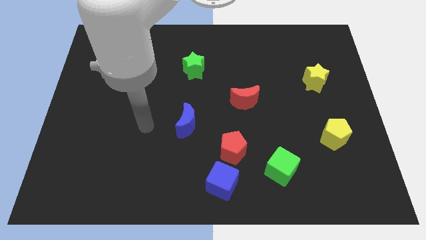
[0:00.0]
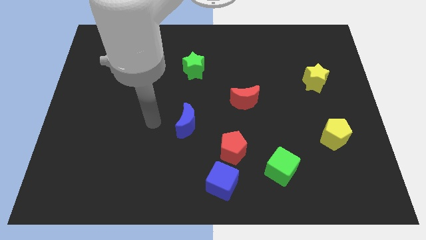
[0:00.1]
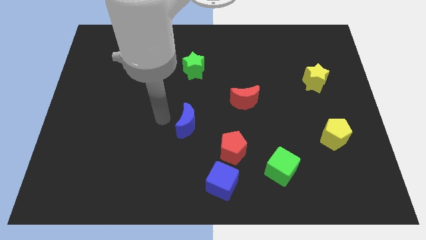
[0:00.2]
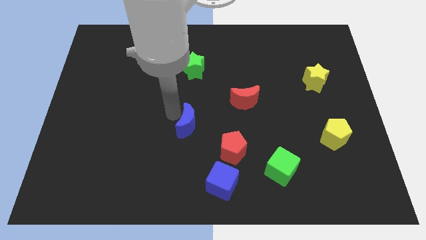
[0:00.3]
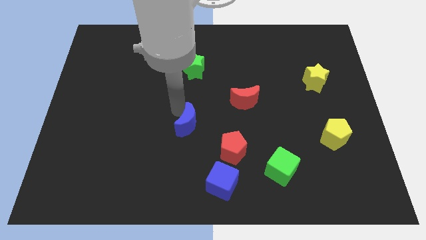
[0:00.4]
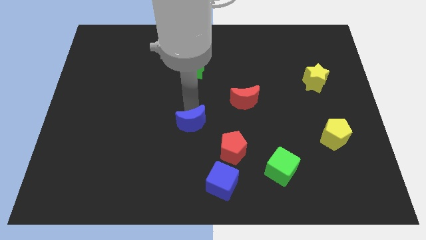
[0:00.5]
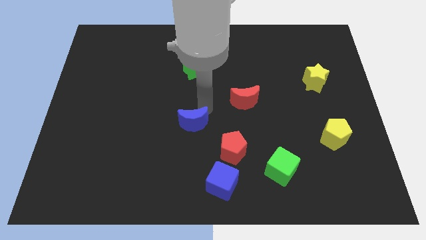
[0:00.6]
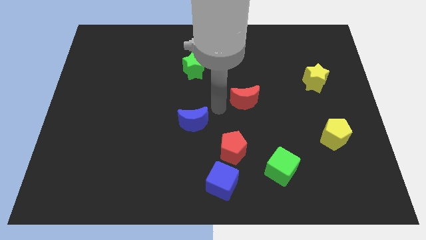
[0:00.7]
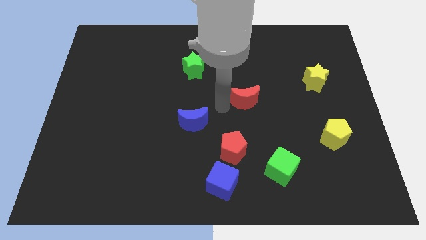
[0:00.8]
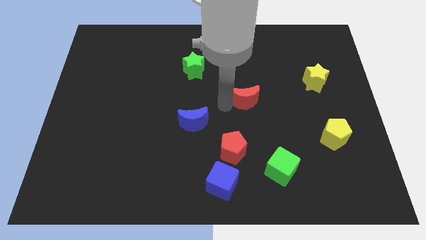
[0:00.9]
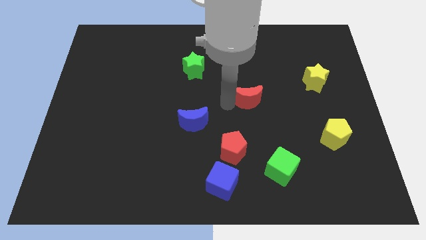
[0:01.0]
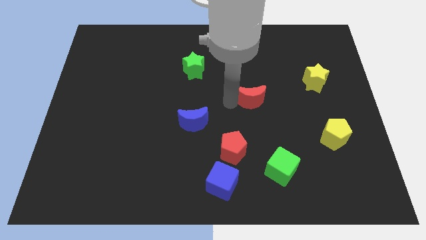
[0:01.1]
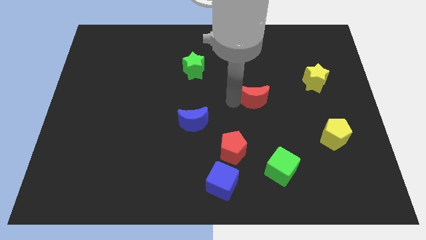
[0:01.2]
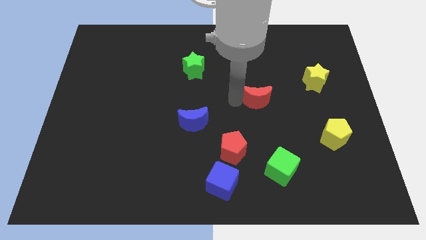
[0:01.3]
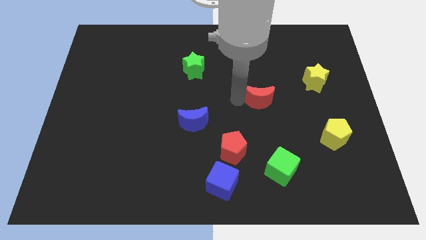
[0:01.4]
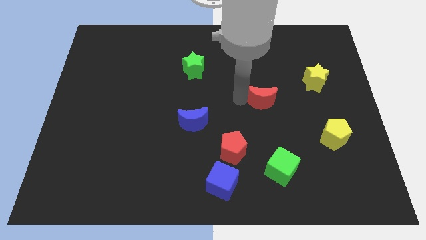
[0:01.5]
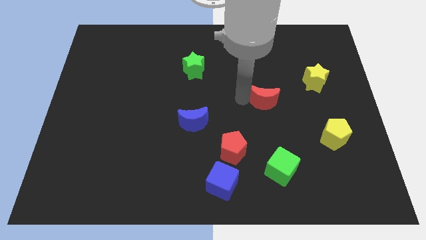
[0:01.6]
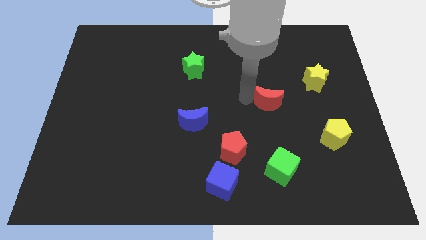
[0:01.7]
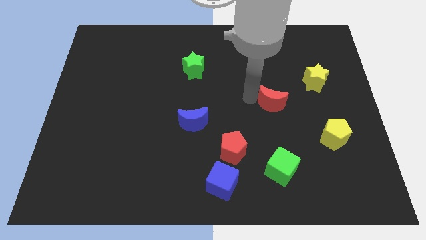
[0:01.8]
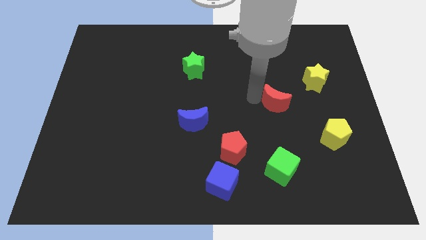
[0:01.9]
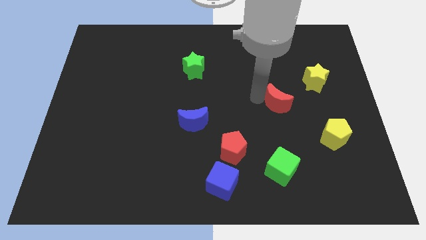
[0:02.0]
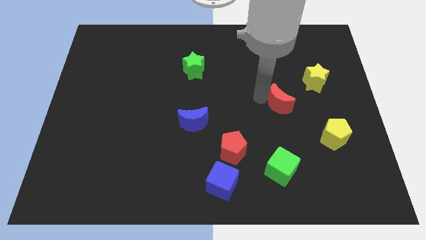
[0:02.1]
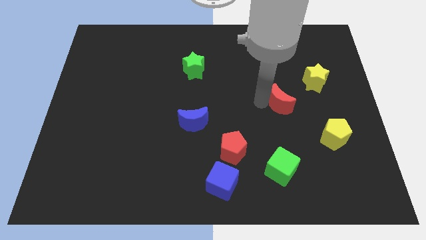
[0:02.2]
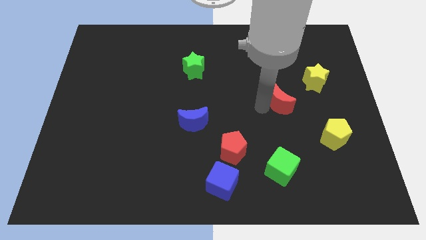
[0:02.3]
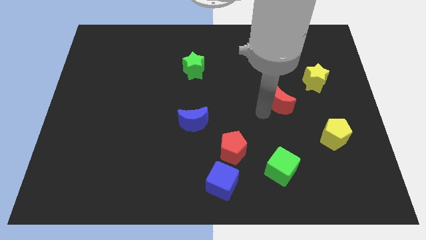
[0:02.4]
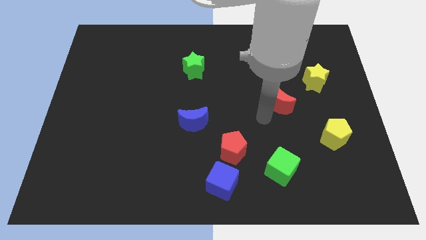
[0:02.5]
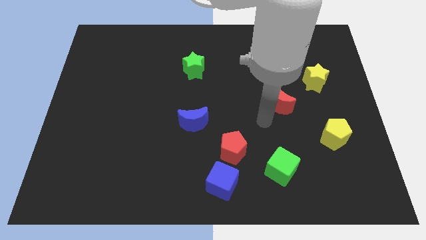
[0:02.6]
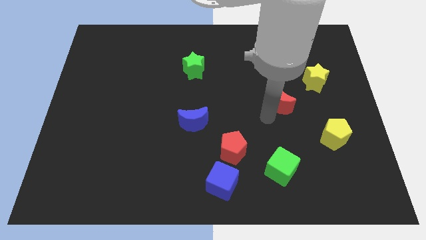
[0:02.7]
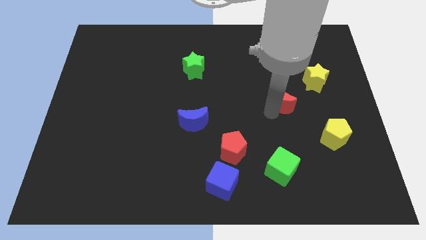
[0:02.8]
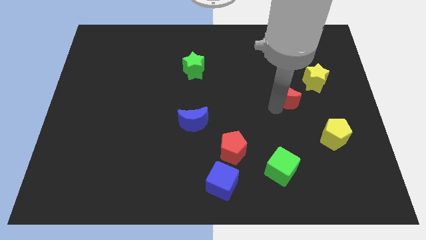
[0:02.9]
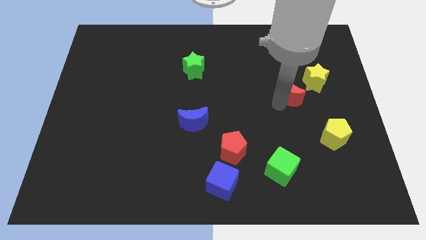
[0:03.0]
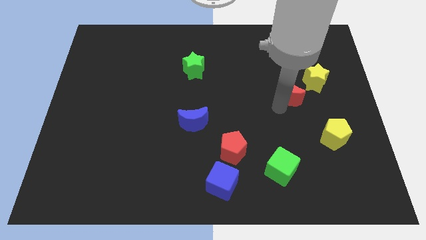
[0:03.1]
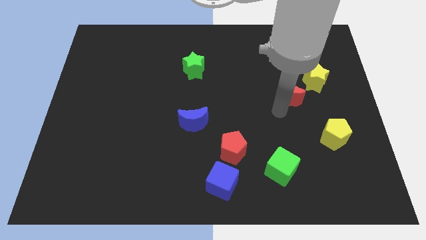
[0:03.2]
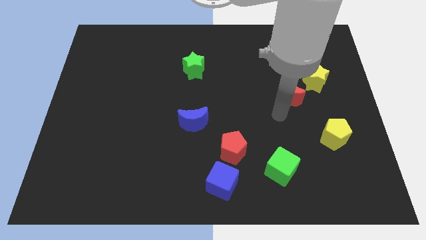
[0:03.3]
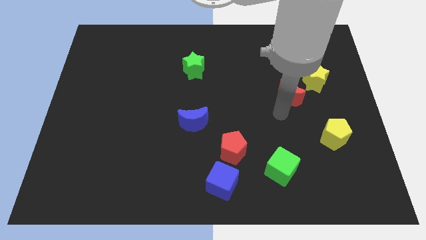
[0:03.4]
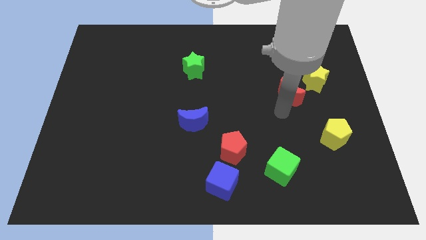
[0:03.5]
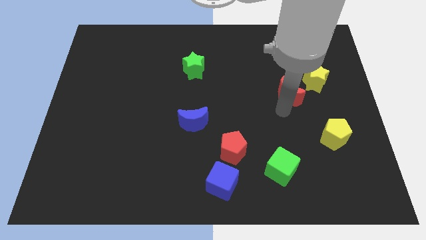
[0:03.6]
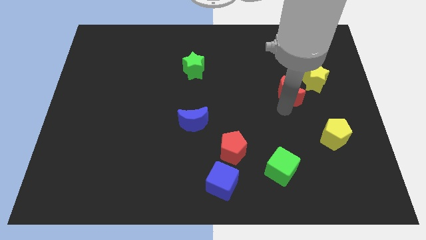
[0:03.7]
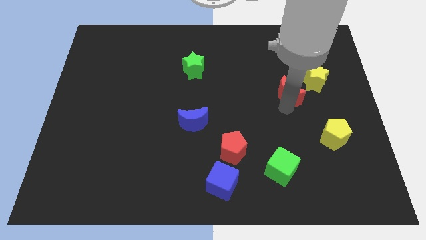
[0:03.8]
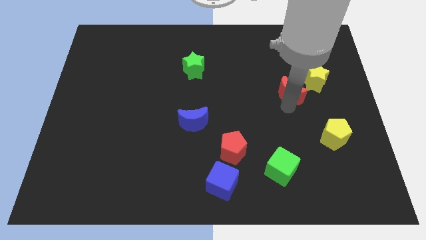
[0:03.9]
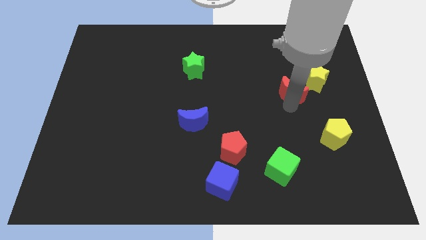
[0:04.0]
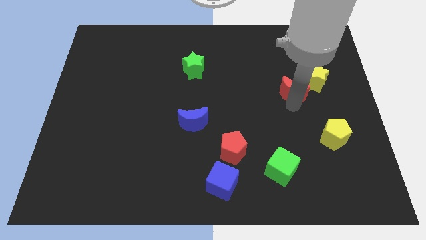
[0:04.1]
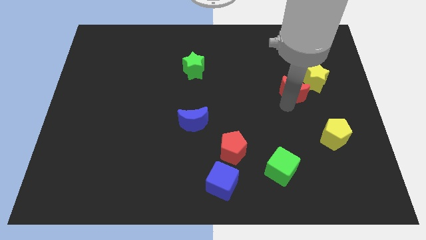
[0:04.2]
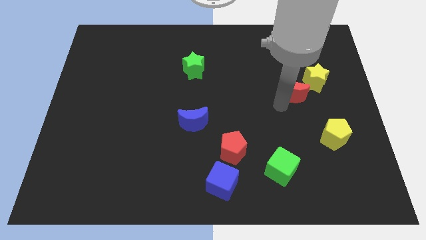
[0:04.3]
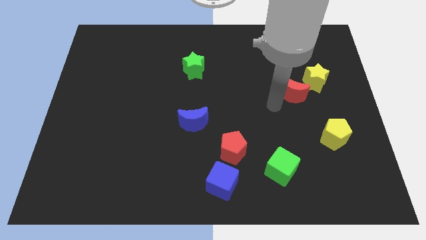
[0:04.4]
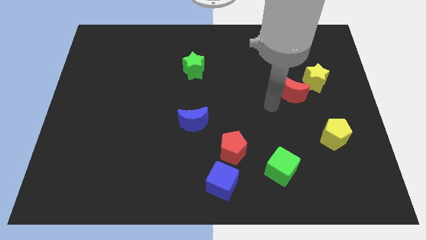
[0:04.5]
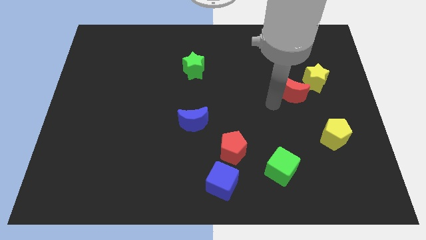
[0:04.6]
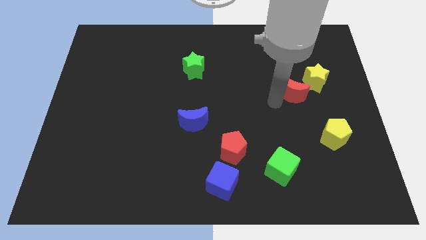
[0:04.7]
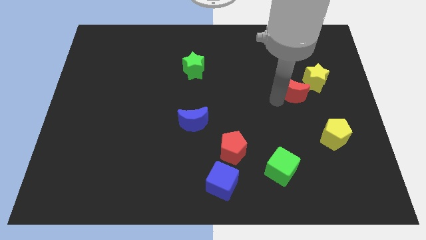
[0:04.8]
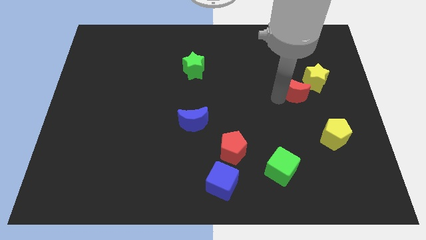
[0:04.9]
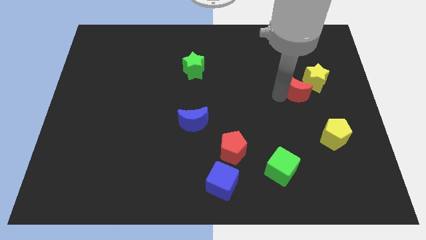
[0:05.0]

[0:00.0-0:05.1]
push the red moon close to the yellow star

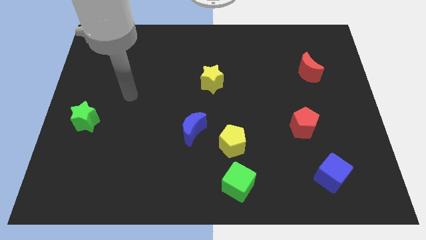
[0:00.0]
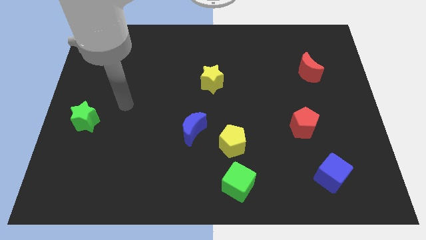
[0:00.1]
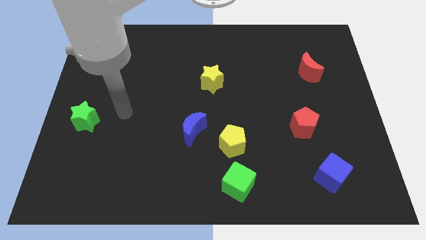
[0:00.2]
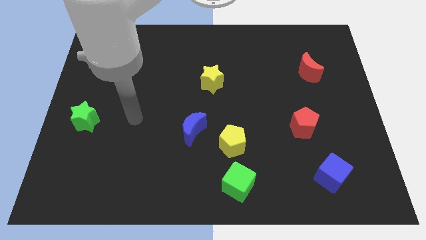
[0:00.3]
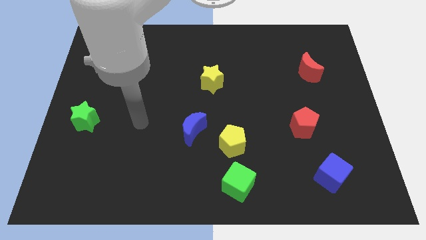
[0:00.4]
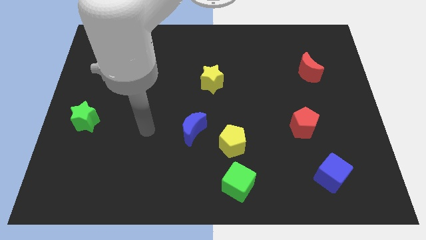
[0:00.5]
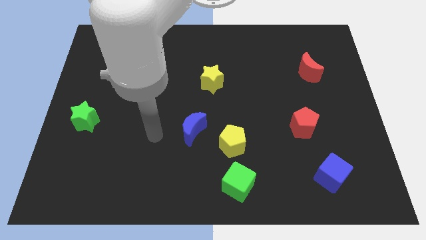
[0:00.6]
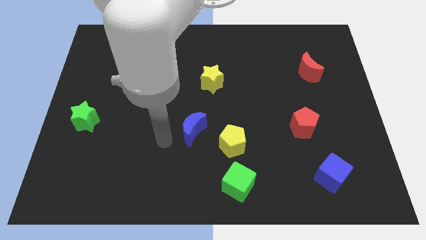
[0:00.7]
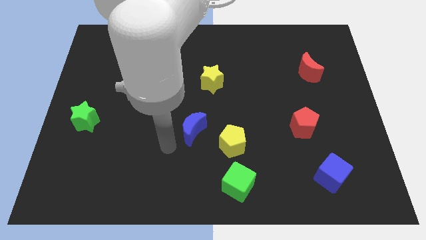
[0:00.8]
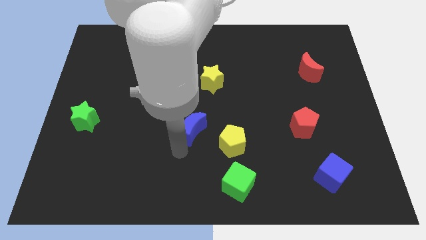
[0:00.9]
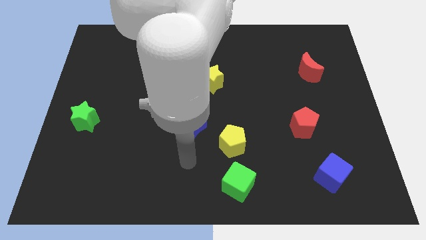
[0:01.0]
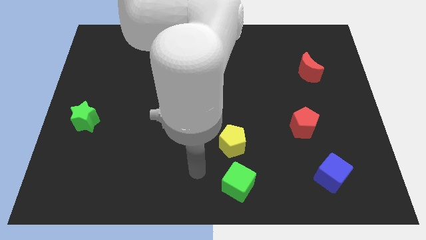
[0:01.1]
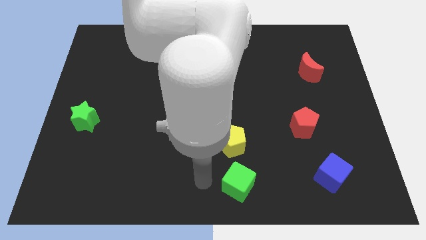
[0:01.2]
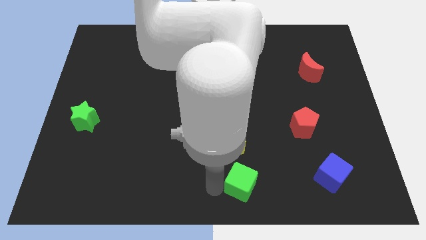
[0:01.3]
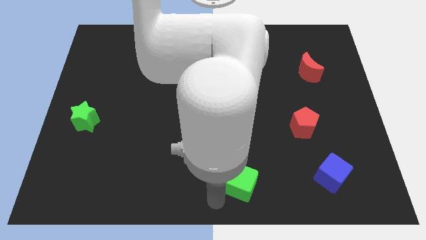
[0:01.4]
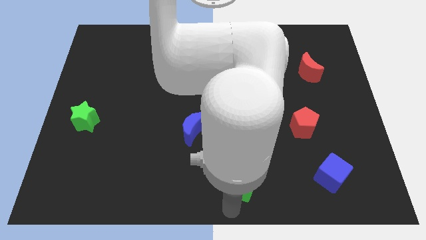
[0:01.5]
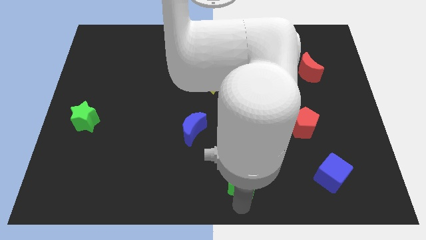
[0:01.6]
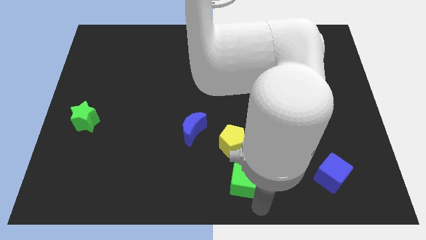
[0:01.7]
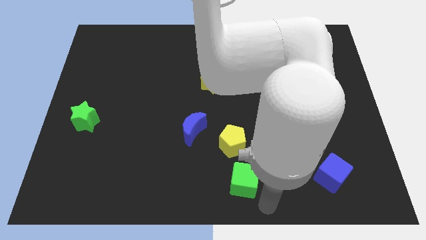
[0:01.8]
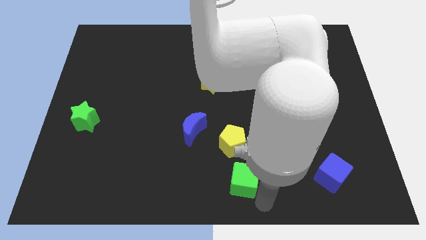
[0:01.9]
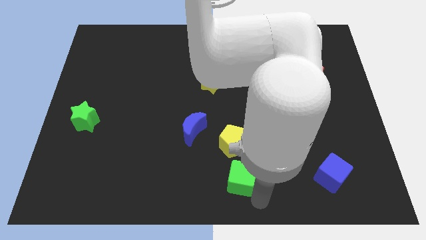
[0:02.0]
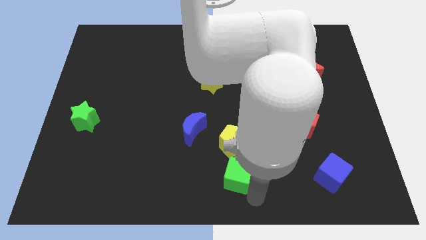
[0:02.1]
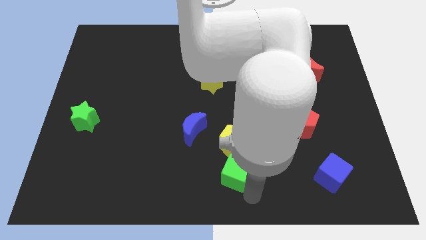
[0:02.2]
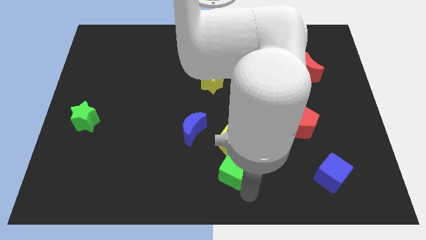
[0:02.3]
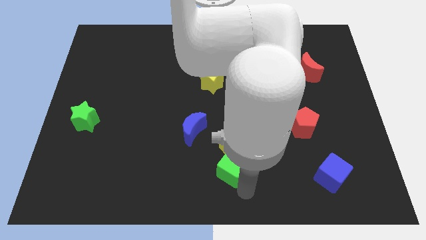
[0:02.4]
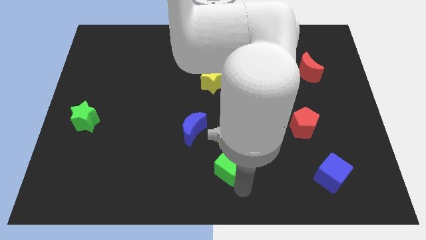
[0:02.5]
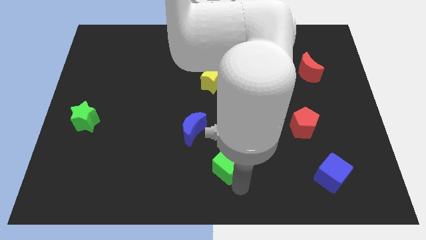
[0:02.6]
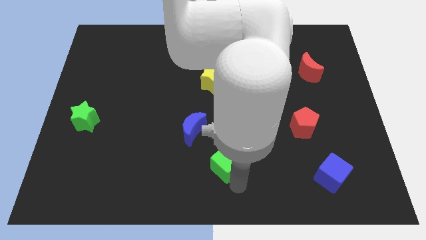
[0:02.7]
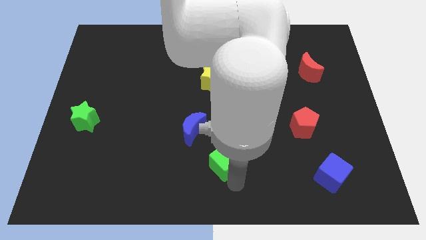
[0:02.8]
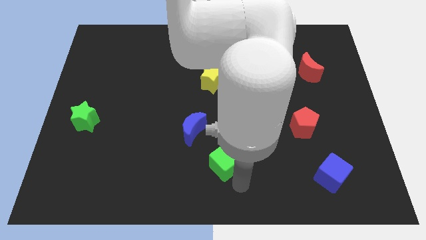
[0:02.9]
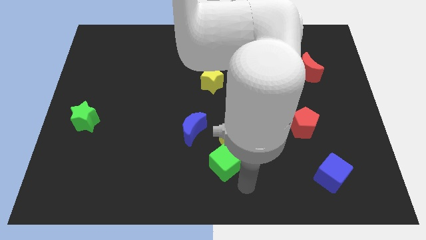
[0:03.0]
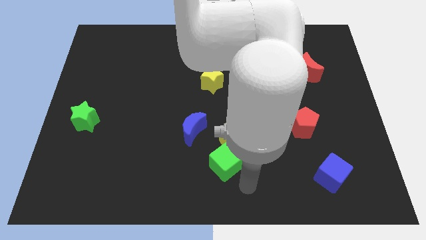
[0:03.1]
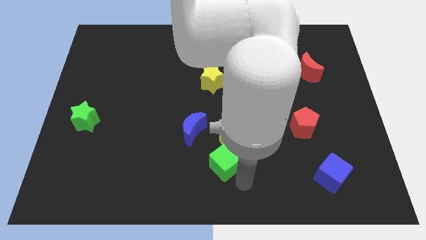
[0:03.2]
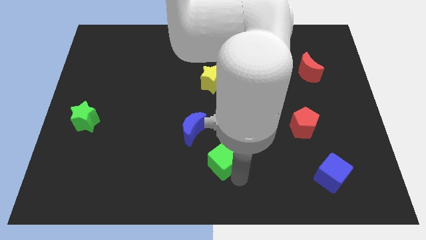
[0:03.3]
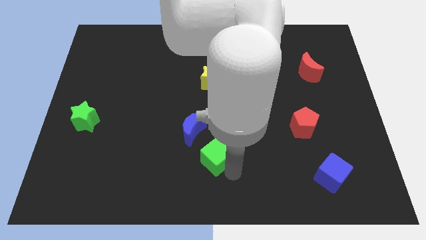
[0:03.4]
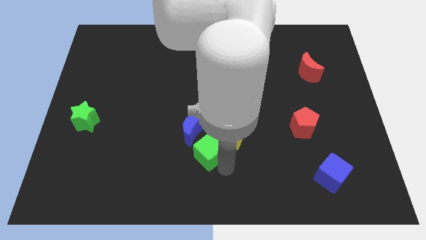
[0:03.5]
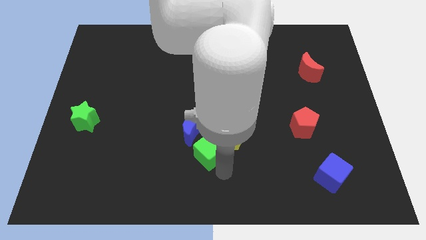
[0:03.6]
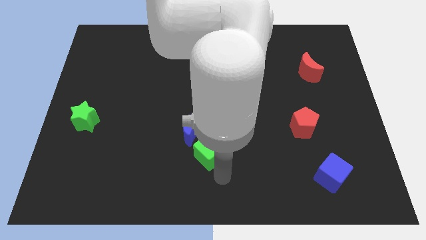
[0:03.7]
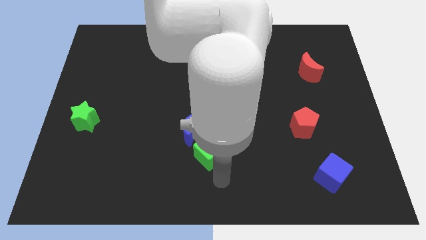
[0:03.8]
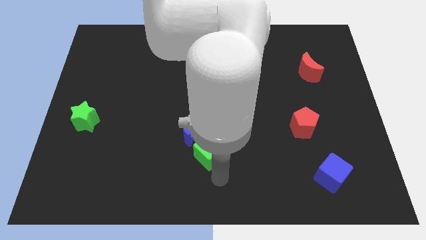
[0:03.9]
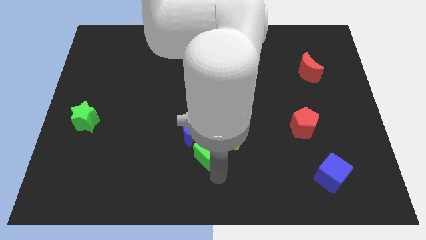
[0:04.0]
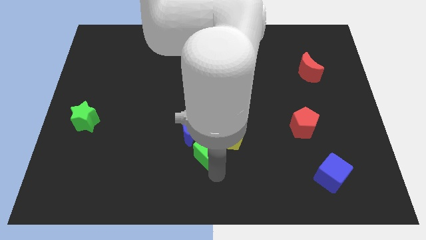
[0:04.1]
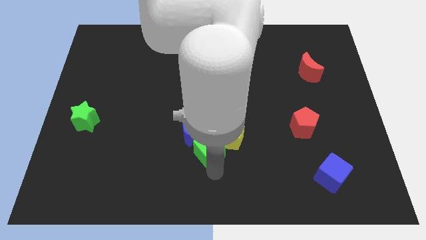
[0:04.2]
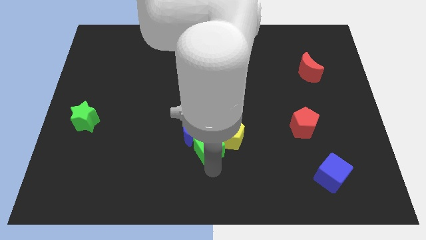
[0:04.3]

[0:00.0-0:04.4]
put the green cube next to the blue moon
